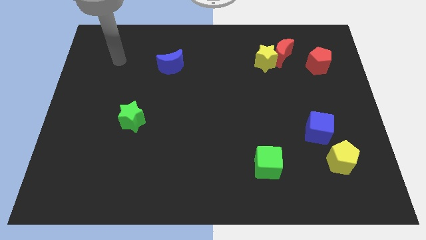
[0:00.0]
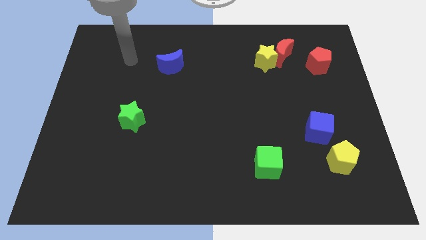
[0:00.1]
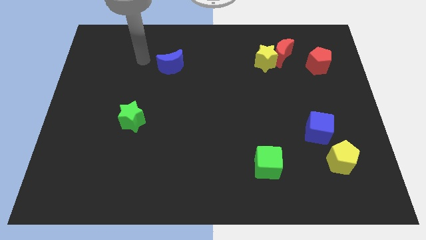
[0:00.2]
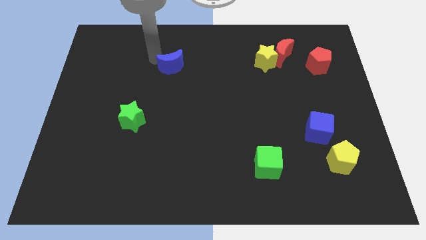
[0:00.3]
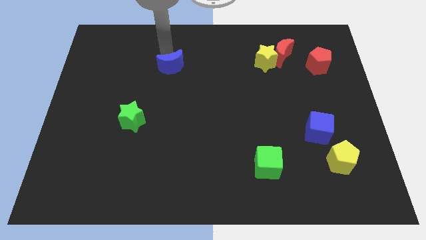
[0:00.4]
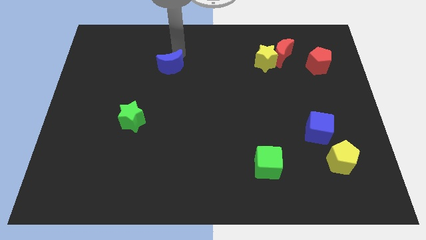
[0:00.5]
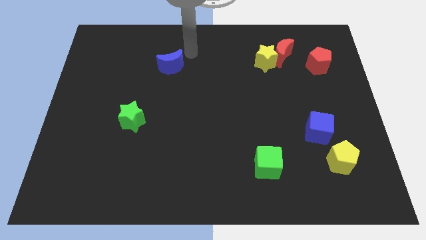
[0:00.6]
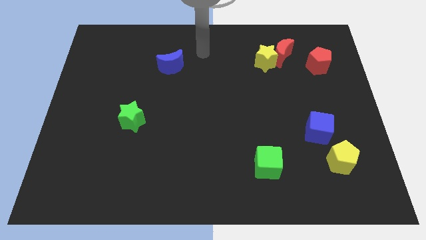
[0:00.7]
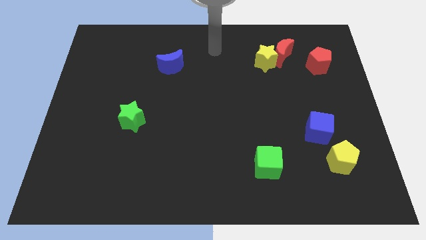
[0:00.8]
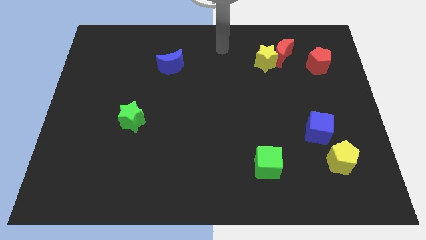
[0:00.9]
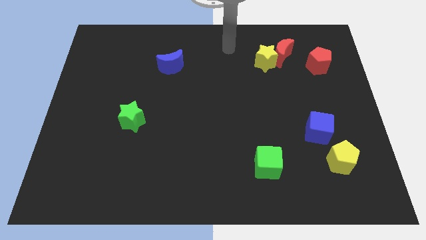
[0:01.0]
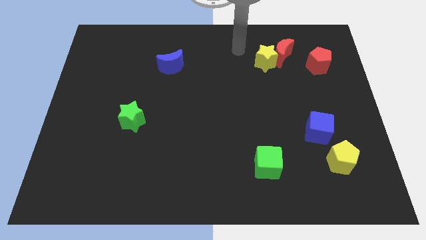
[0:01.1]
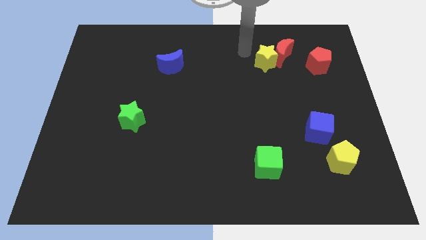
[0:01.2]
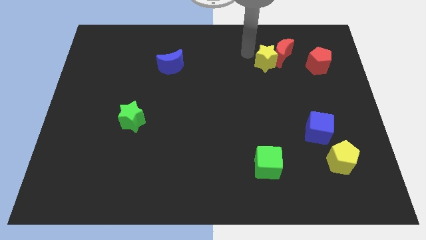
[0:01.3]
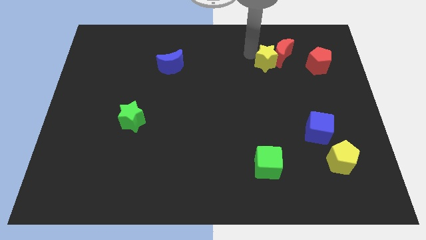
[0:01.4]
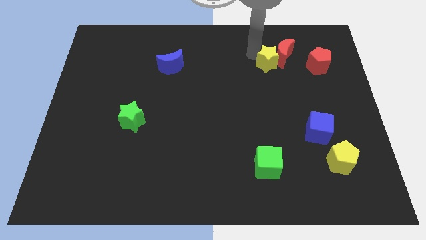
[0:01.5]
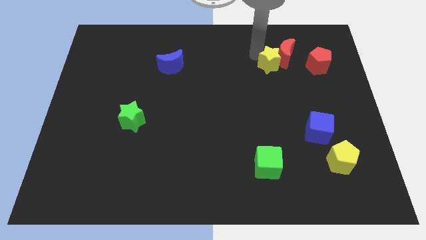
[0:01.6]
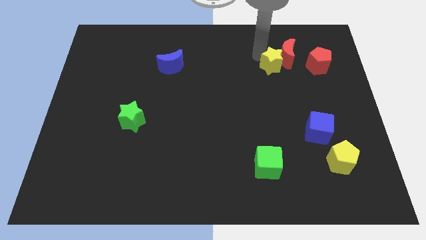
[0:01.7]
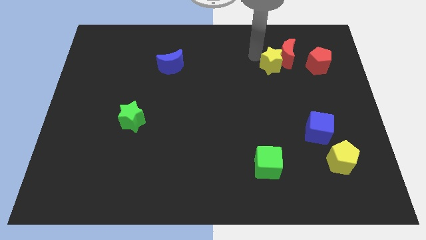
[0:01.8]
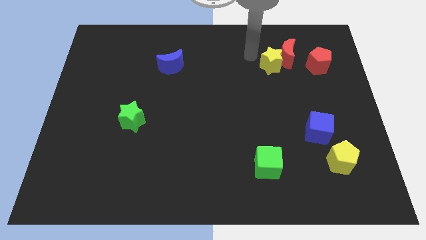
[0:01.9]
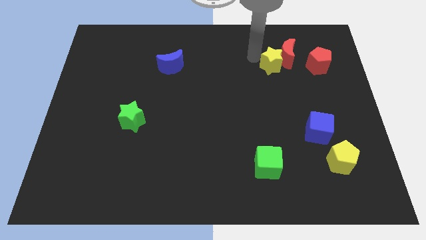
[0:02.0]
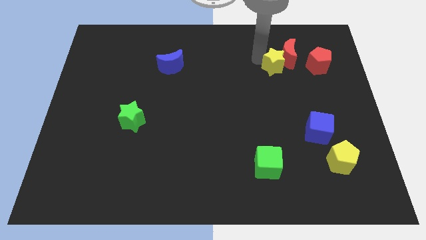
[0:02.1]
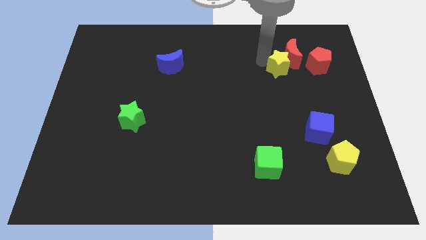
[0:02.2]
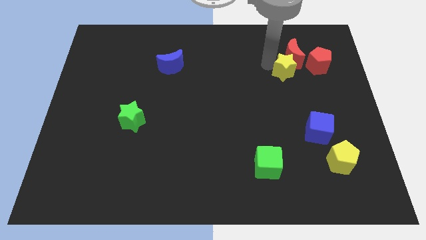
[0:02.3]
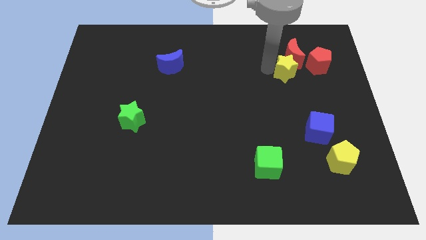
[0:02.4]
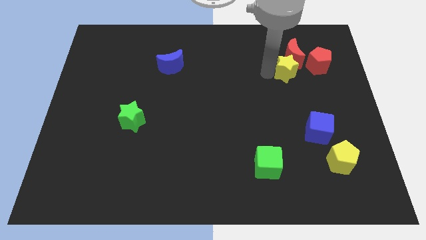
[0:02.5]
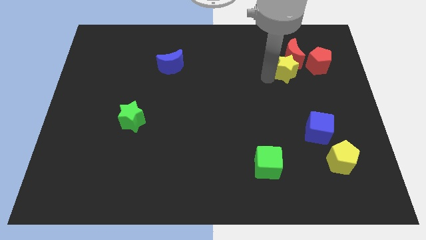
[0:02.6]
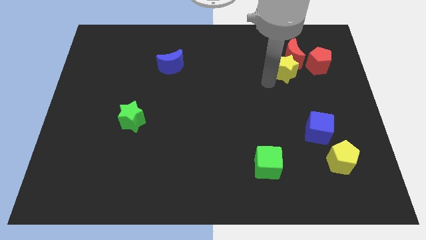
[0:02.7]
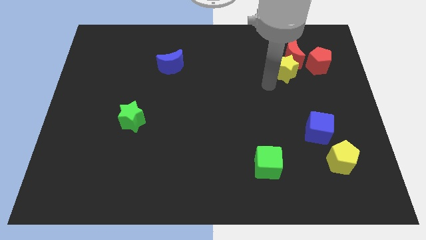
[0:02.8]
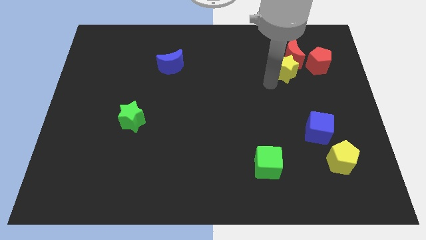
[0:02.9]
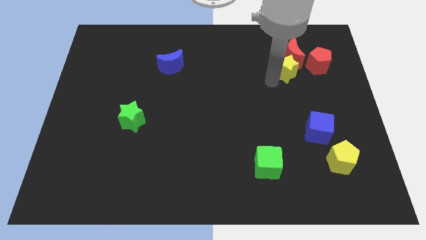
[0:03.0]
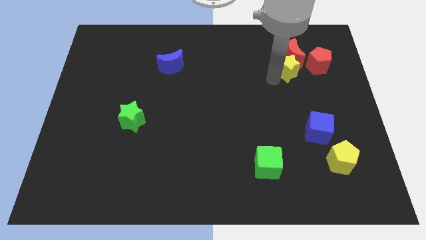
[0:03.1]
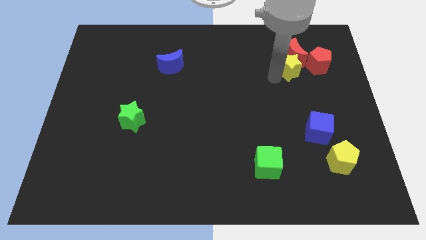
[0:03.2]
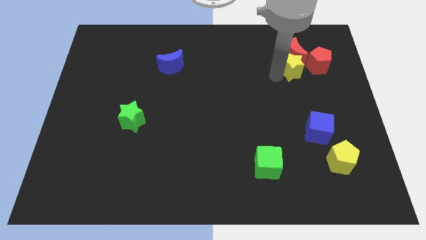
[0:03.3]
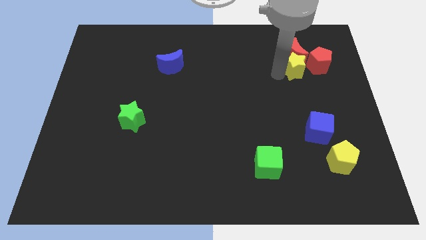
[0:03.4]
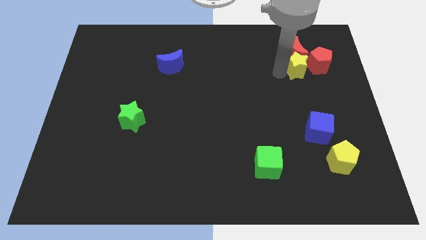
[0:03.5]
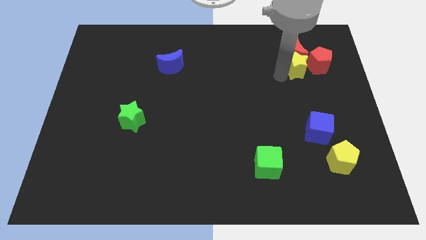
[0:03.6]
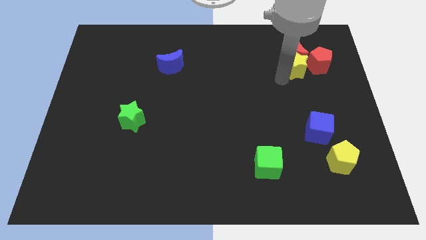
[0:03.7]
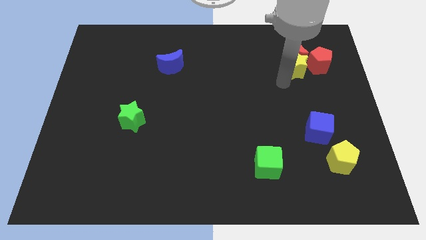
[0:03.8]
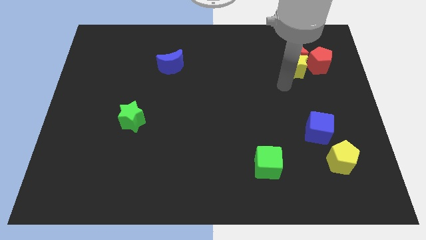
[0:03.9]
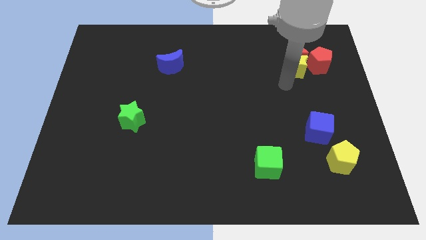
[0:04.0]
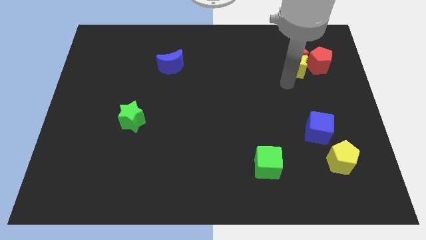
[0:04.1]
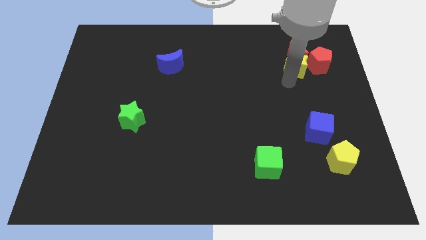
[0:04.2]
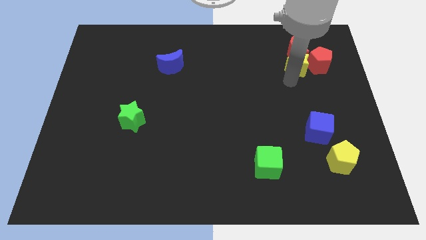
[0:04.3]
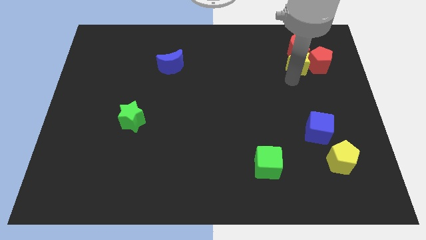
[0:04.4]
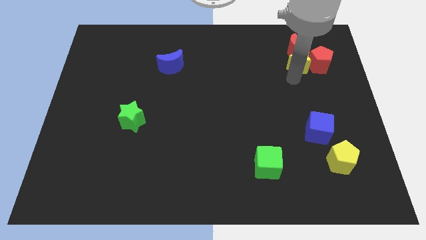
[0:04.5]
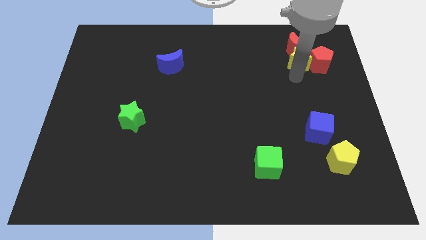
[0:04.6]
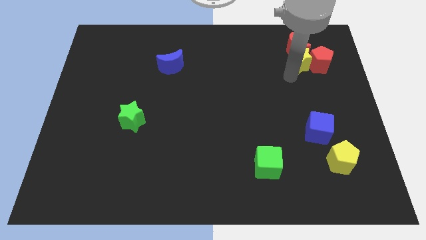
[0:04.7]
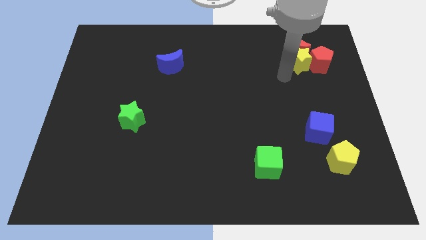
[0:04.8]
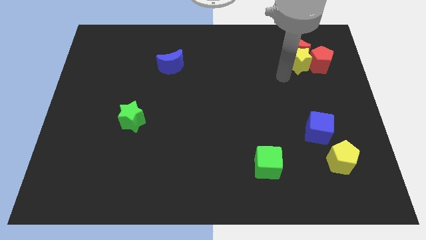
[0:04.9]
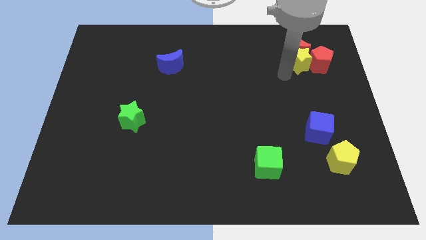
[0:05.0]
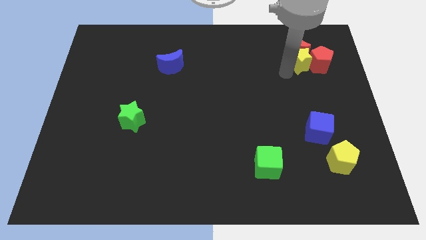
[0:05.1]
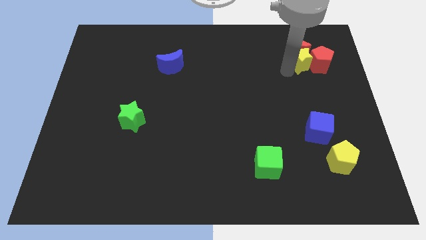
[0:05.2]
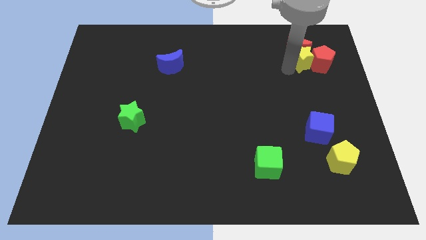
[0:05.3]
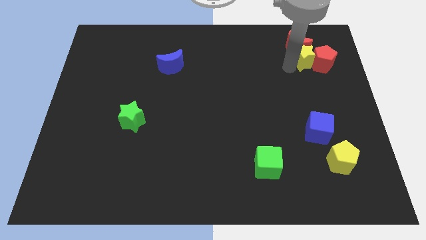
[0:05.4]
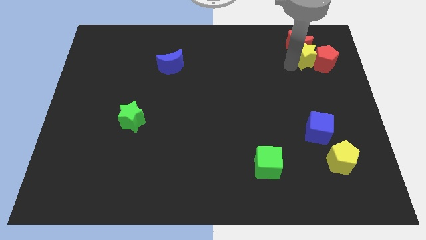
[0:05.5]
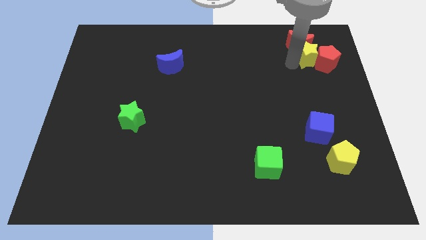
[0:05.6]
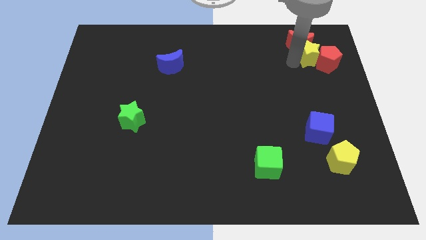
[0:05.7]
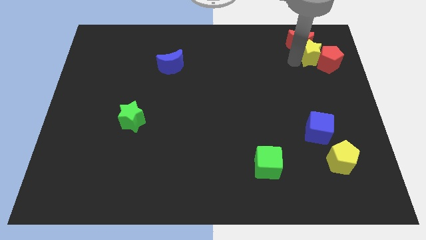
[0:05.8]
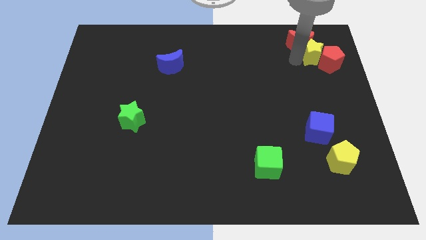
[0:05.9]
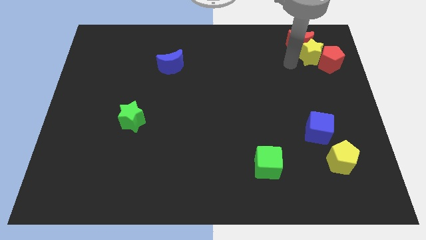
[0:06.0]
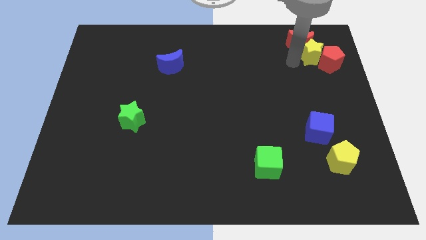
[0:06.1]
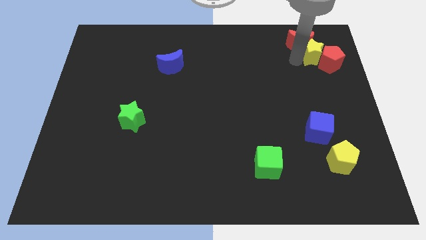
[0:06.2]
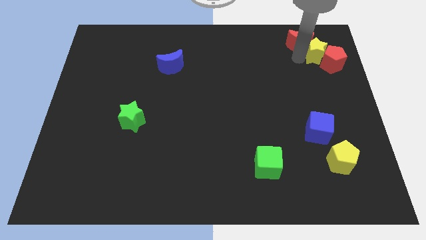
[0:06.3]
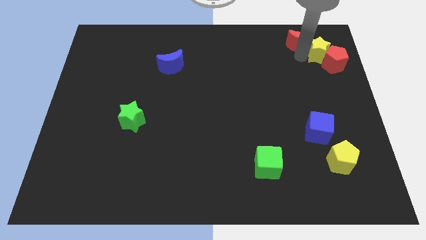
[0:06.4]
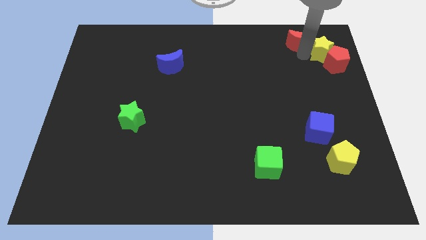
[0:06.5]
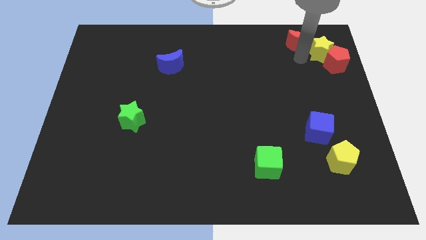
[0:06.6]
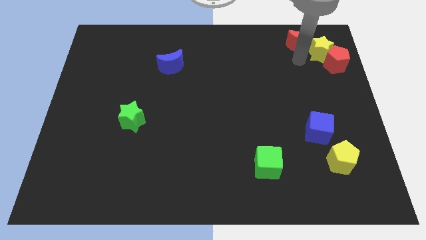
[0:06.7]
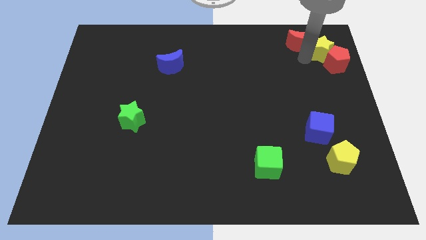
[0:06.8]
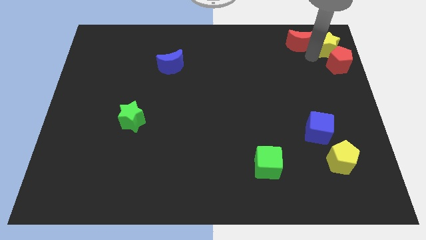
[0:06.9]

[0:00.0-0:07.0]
put the yellow star to the upper right corner

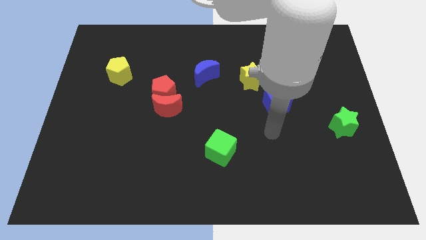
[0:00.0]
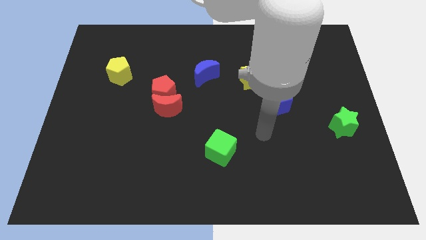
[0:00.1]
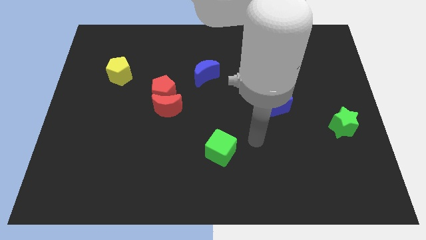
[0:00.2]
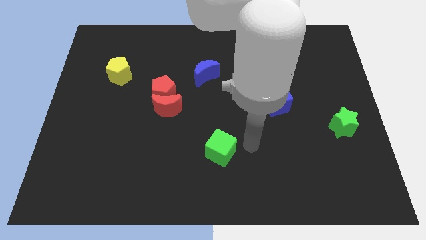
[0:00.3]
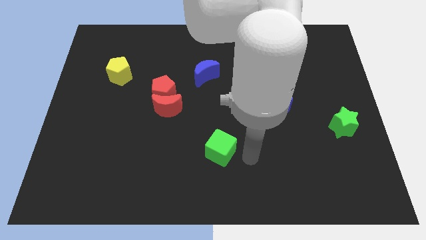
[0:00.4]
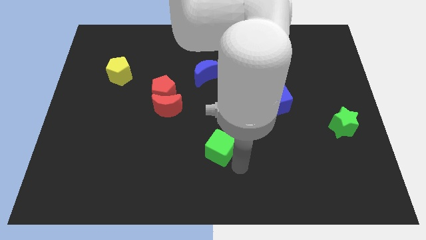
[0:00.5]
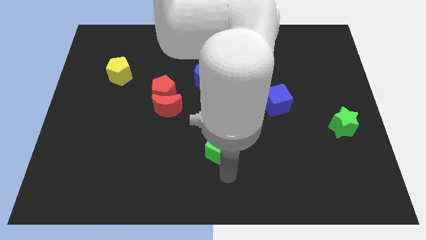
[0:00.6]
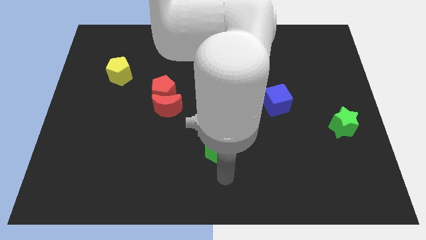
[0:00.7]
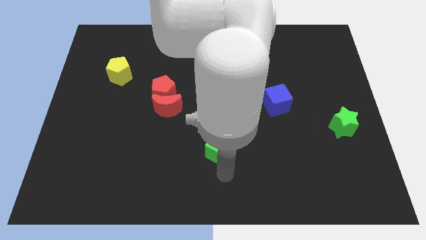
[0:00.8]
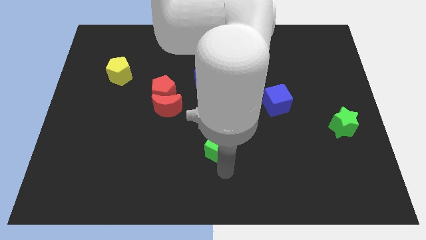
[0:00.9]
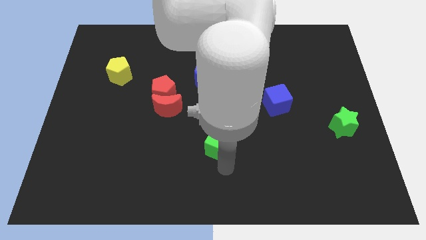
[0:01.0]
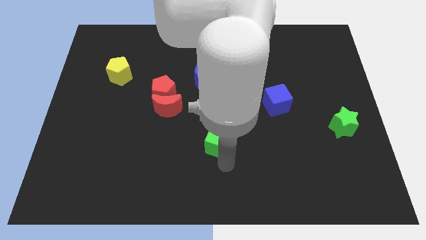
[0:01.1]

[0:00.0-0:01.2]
move the green cube to the middle of the board
